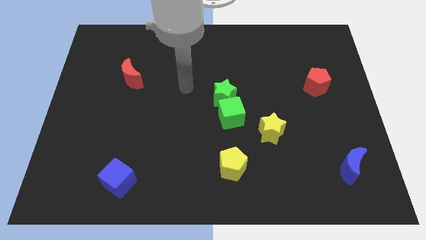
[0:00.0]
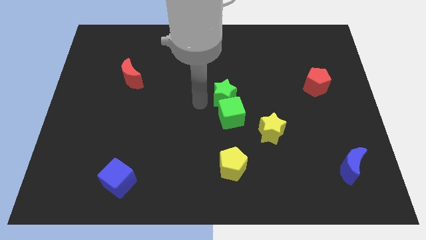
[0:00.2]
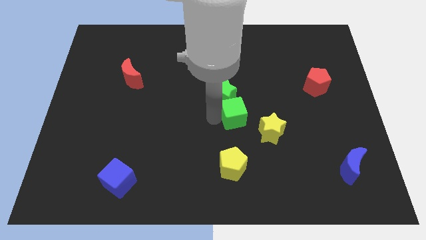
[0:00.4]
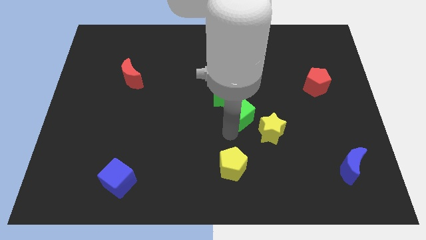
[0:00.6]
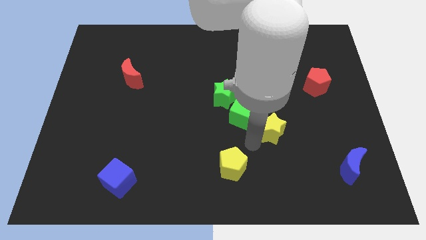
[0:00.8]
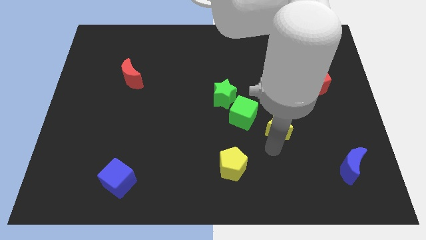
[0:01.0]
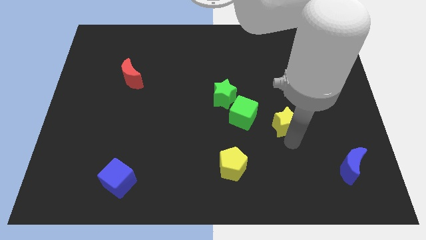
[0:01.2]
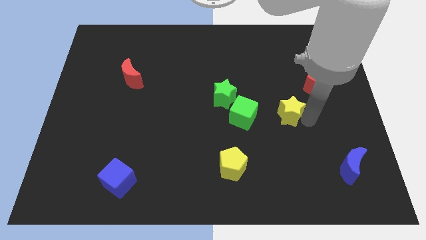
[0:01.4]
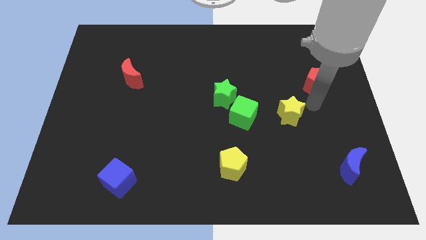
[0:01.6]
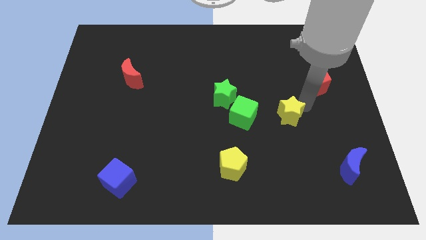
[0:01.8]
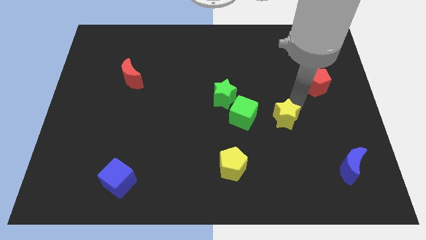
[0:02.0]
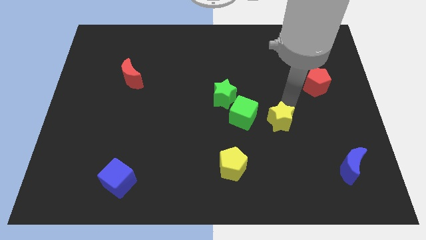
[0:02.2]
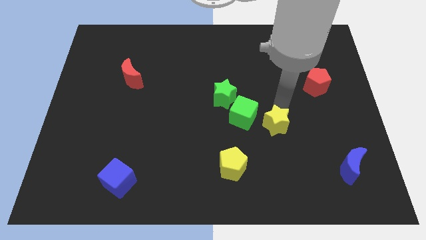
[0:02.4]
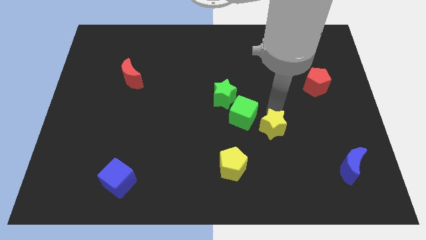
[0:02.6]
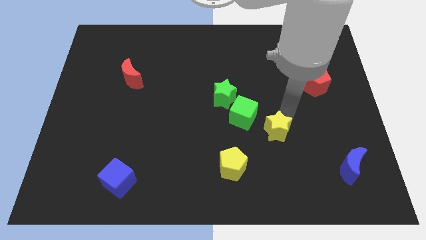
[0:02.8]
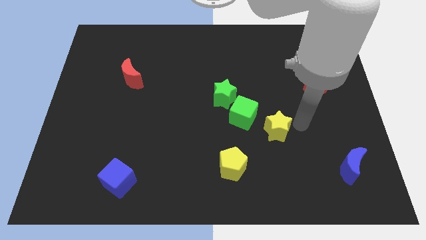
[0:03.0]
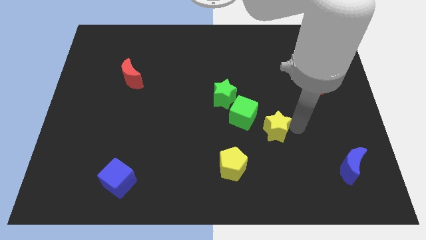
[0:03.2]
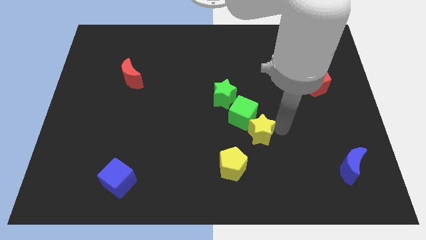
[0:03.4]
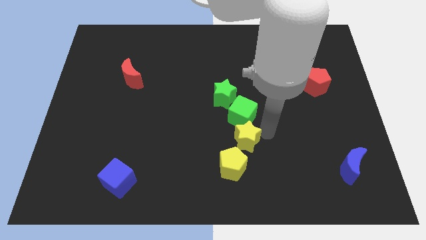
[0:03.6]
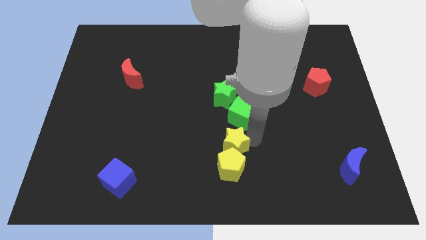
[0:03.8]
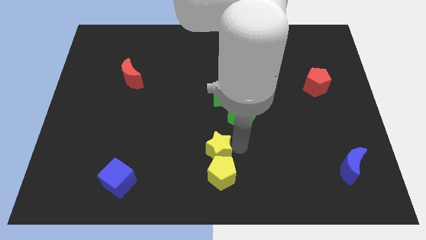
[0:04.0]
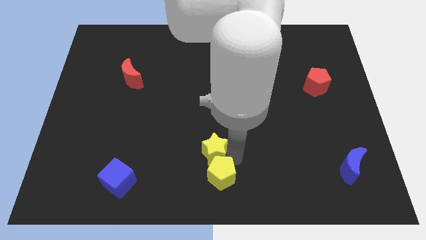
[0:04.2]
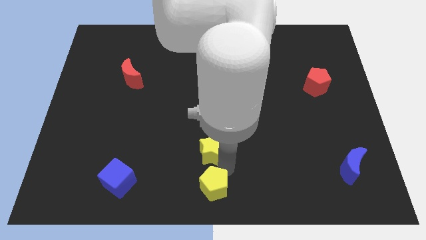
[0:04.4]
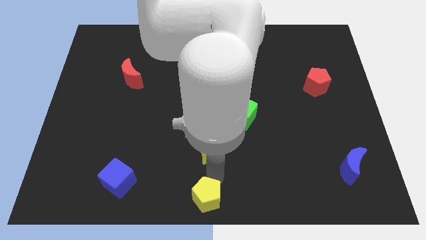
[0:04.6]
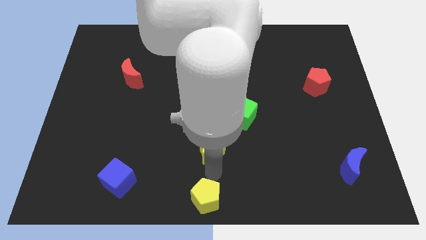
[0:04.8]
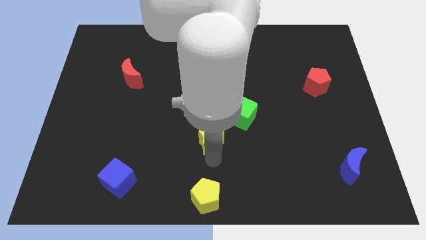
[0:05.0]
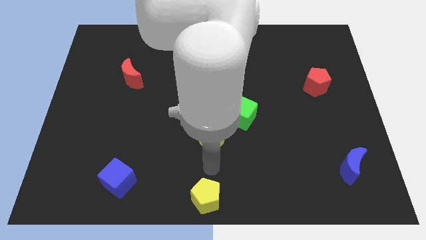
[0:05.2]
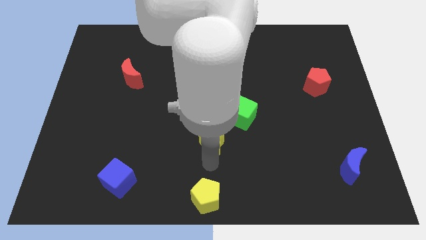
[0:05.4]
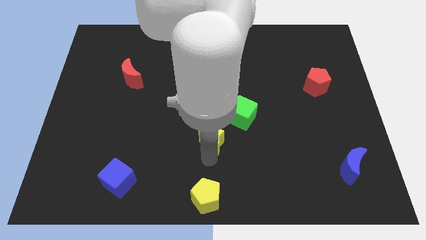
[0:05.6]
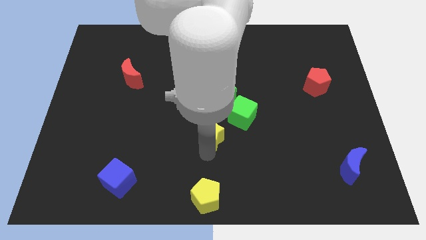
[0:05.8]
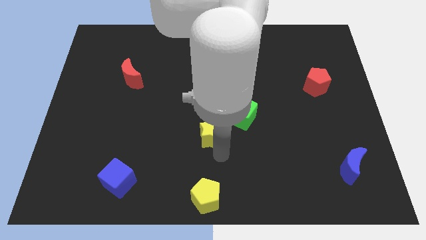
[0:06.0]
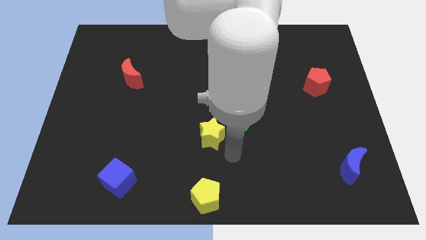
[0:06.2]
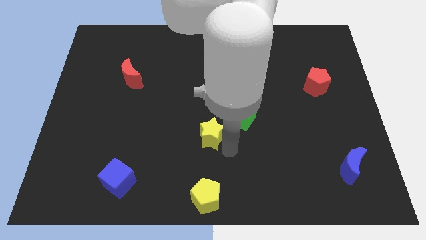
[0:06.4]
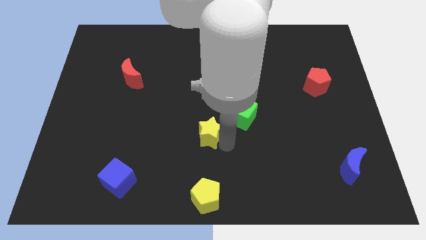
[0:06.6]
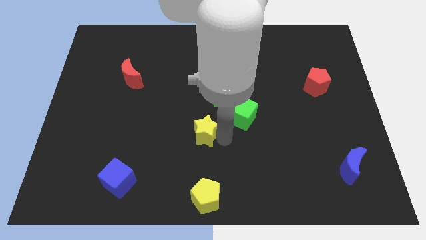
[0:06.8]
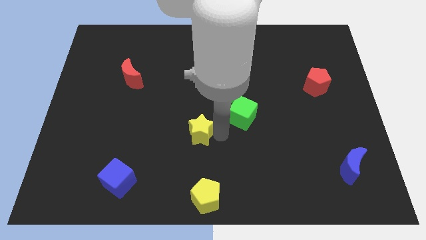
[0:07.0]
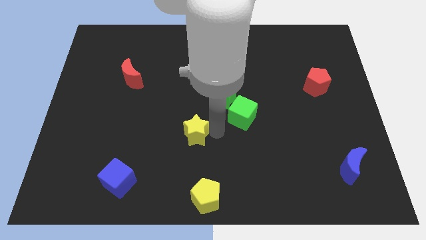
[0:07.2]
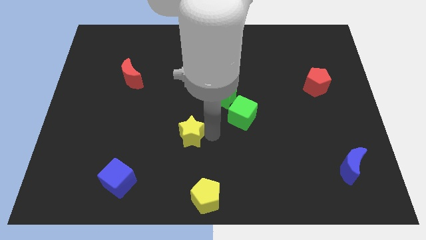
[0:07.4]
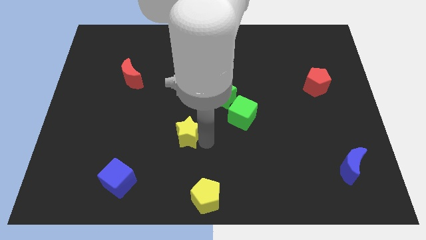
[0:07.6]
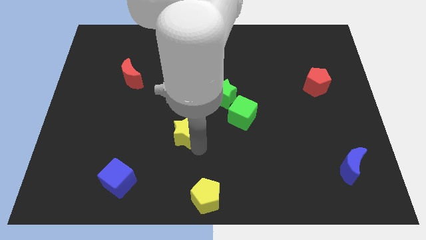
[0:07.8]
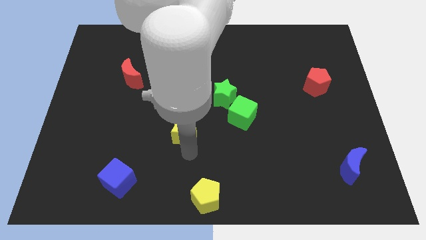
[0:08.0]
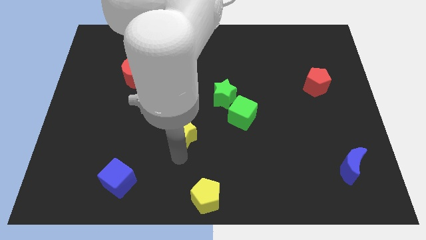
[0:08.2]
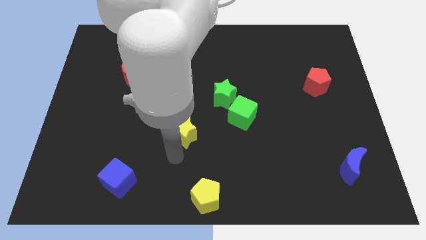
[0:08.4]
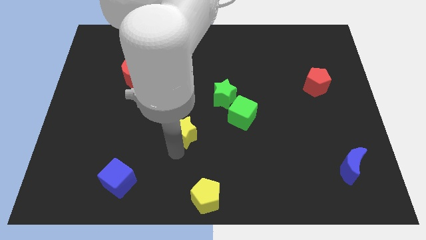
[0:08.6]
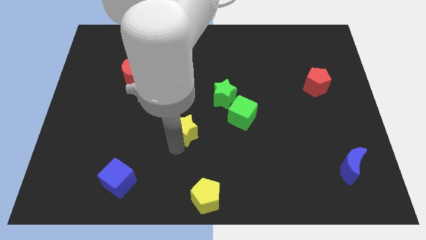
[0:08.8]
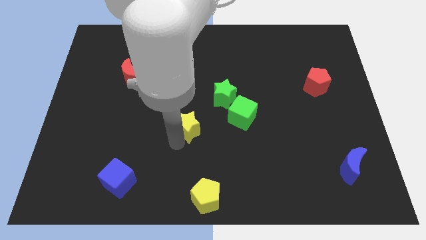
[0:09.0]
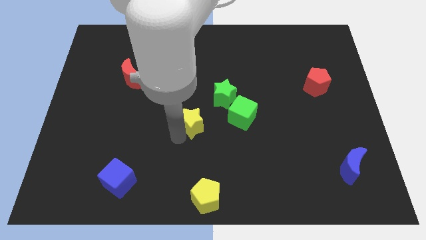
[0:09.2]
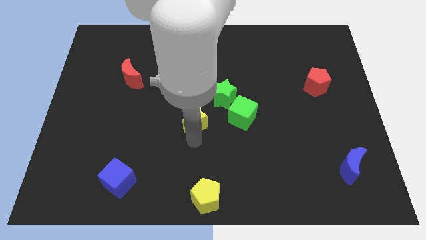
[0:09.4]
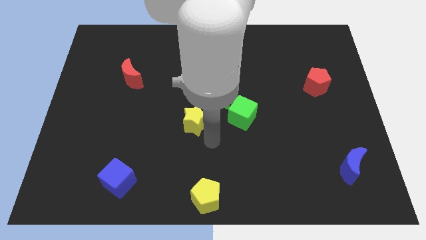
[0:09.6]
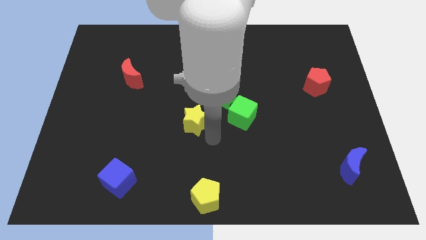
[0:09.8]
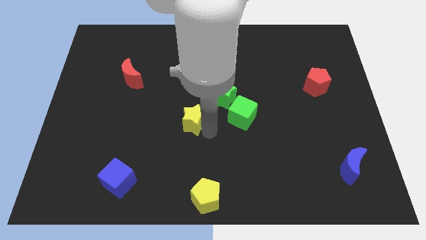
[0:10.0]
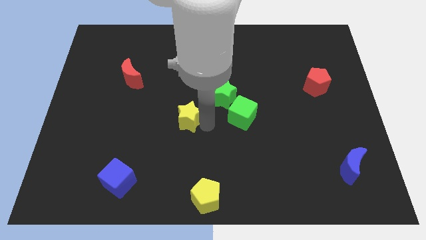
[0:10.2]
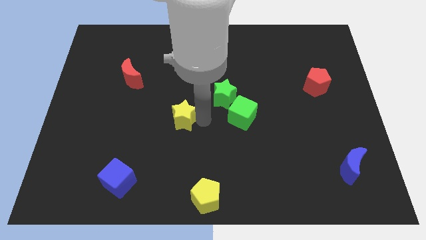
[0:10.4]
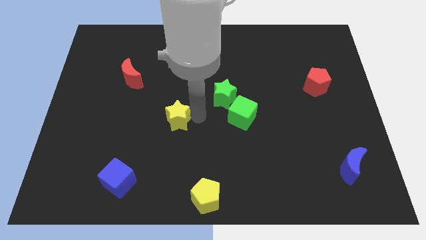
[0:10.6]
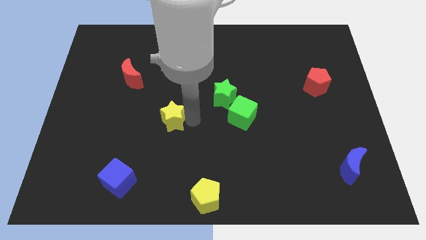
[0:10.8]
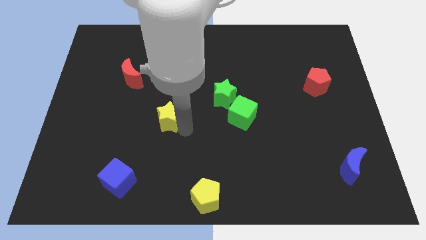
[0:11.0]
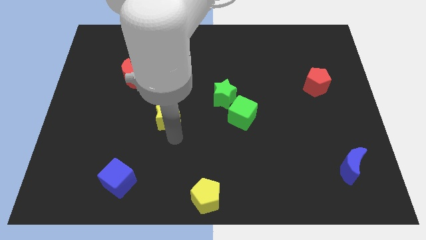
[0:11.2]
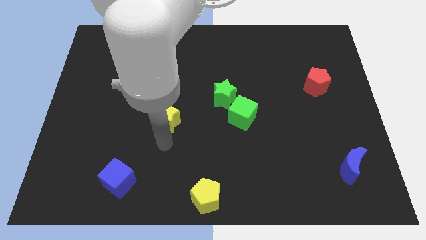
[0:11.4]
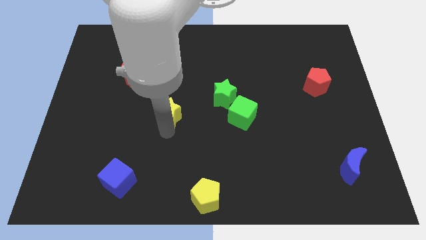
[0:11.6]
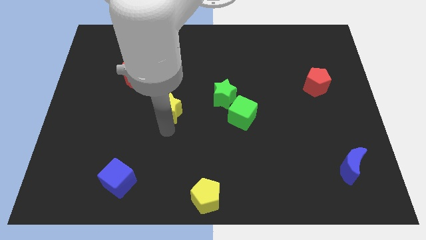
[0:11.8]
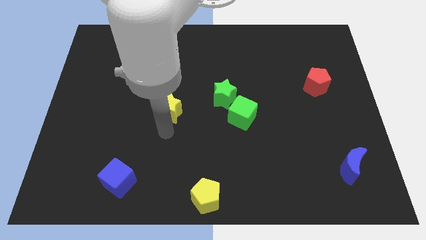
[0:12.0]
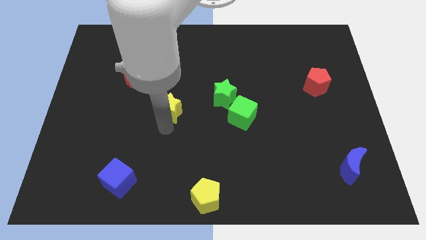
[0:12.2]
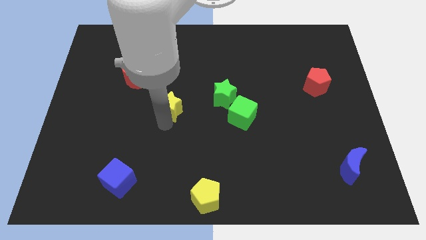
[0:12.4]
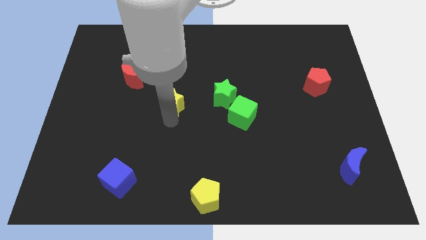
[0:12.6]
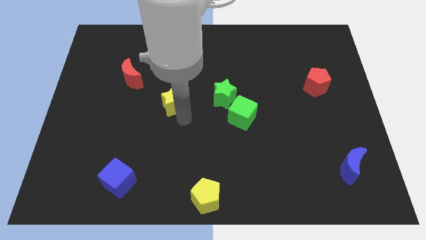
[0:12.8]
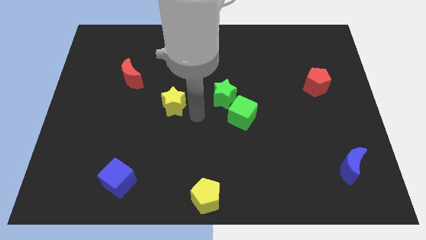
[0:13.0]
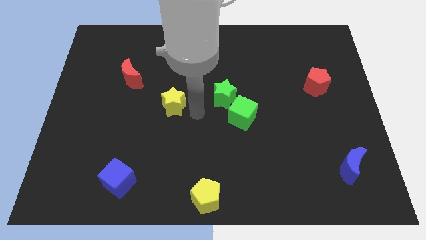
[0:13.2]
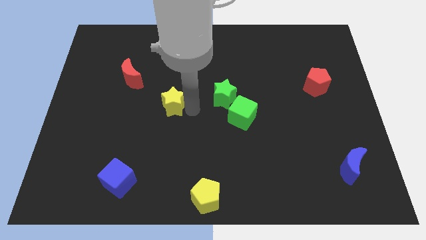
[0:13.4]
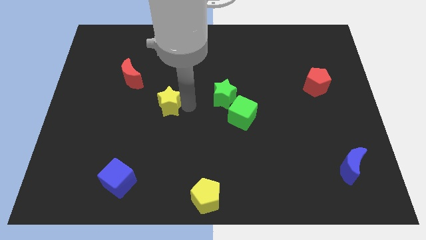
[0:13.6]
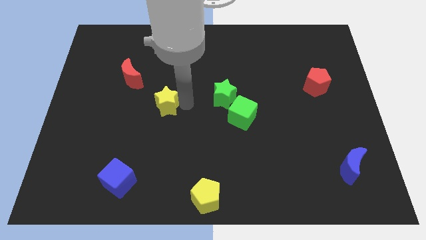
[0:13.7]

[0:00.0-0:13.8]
move the yellow star to the bottom right side of the red moon
